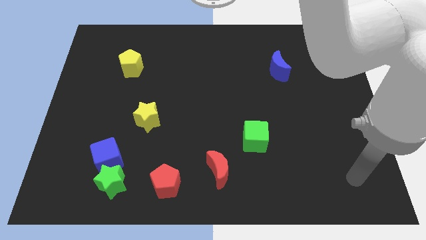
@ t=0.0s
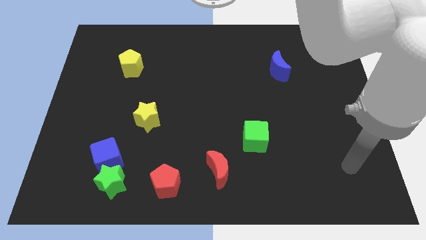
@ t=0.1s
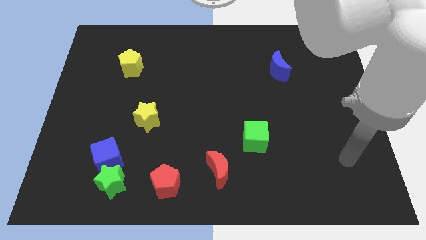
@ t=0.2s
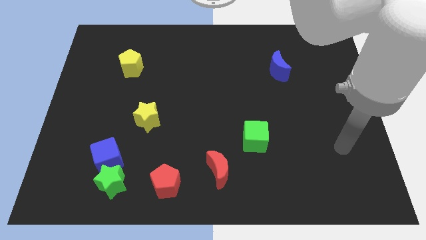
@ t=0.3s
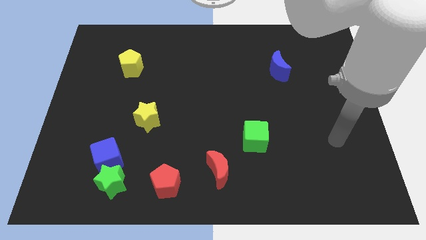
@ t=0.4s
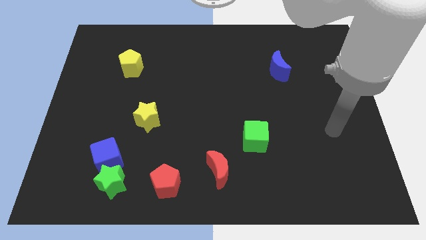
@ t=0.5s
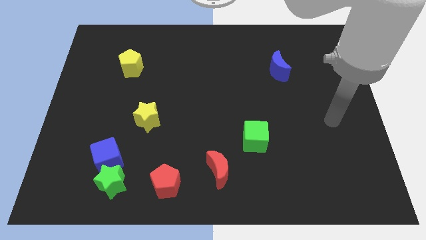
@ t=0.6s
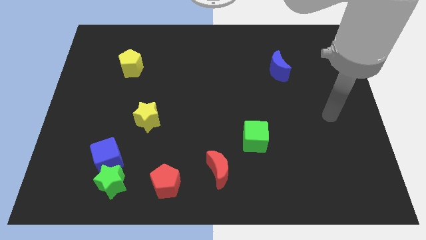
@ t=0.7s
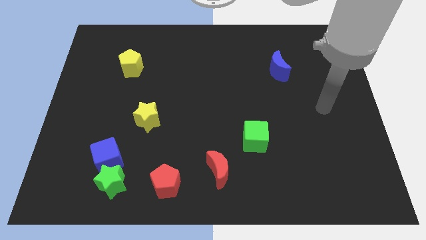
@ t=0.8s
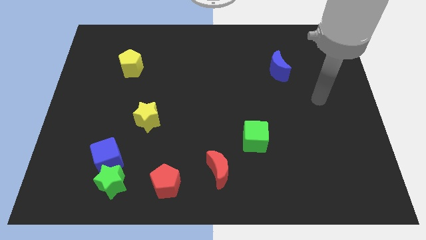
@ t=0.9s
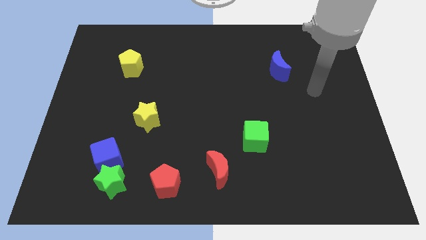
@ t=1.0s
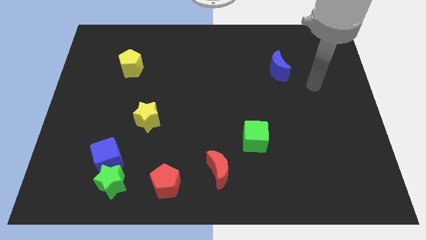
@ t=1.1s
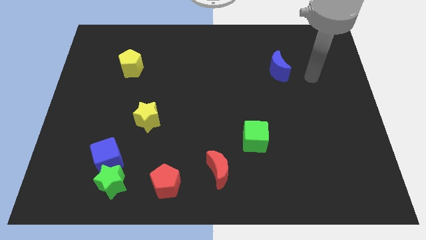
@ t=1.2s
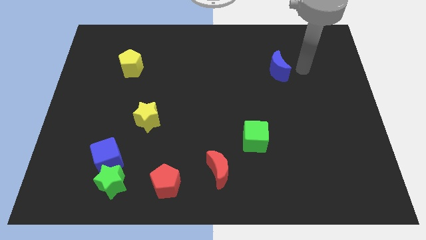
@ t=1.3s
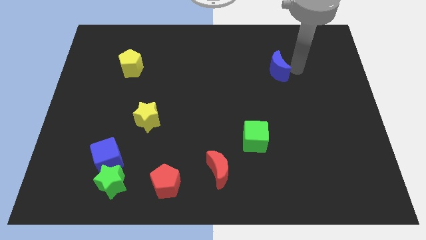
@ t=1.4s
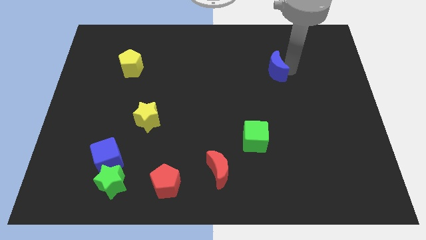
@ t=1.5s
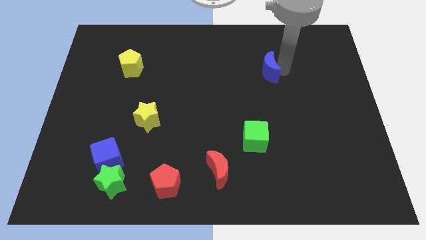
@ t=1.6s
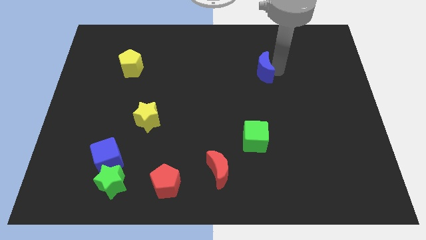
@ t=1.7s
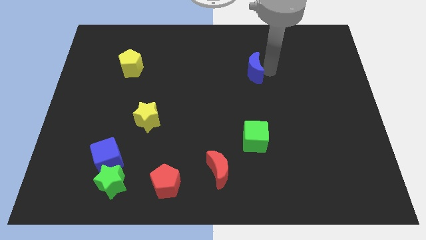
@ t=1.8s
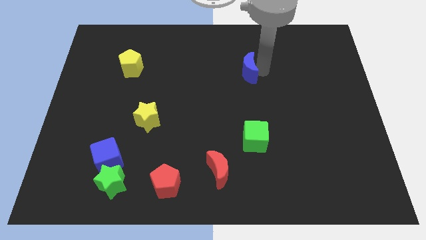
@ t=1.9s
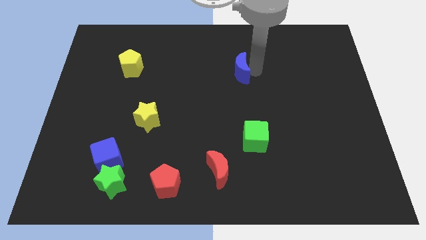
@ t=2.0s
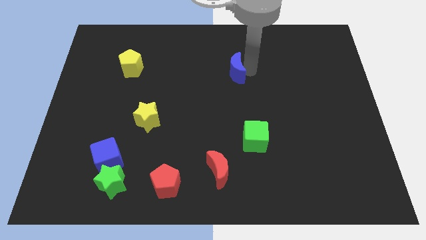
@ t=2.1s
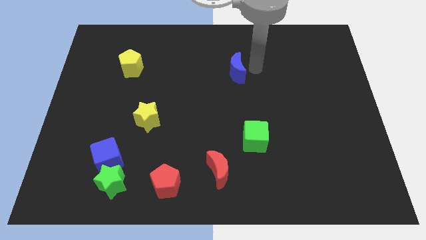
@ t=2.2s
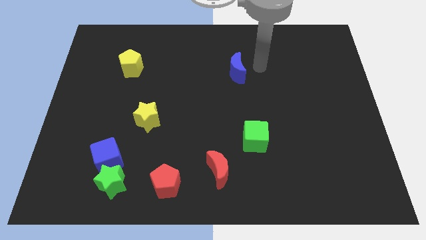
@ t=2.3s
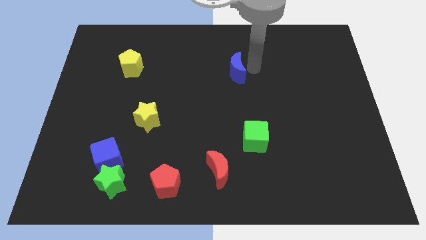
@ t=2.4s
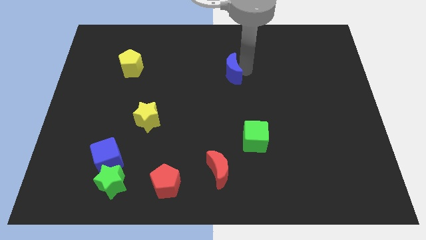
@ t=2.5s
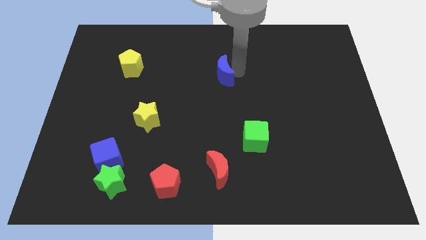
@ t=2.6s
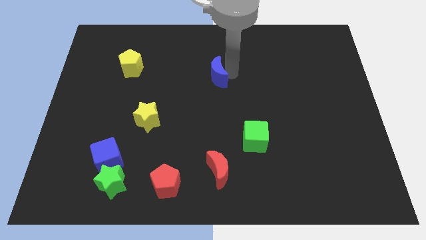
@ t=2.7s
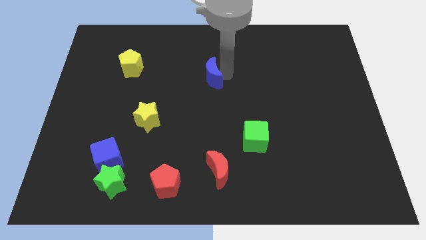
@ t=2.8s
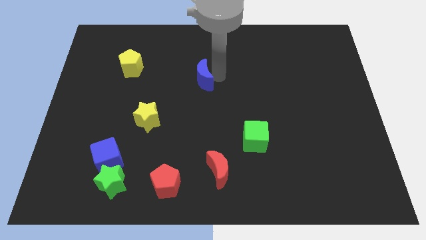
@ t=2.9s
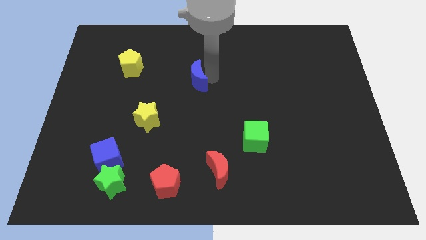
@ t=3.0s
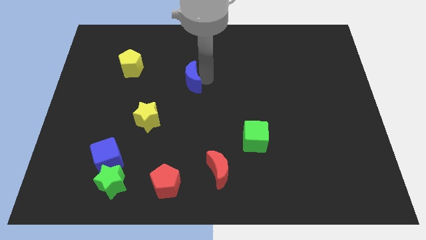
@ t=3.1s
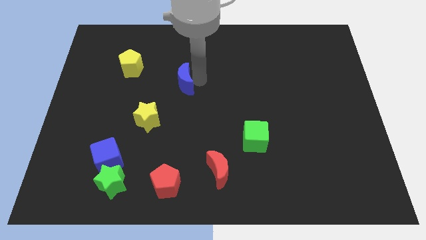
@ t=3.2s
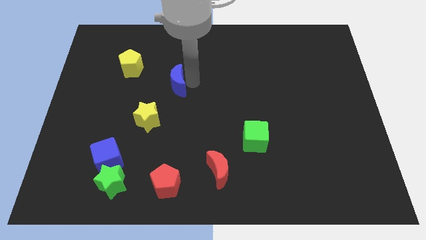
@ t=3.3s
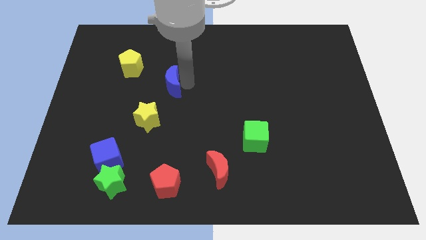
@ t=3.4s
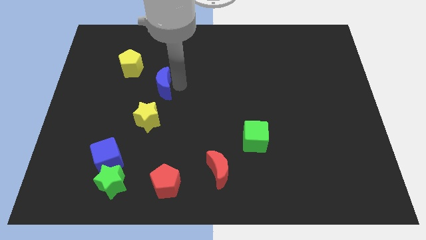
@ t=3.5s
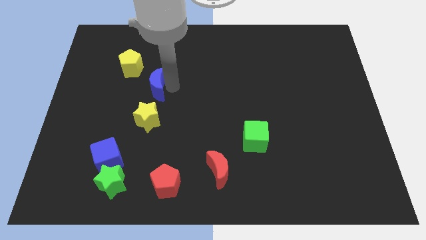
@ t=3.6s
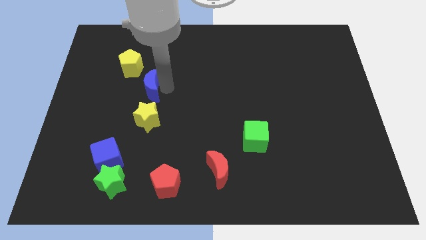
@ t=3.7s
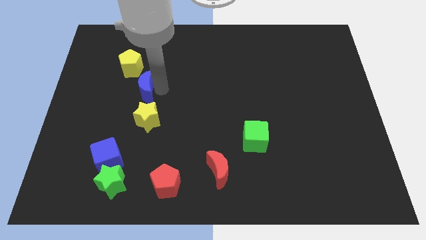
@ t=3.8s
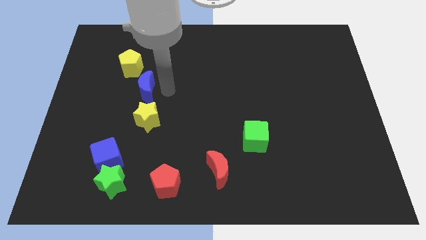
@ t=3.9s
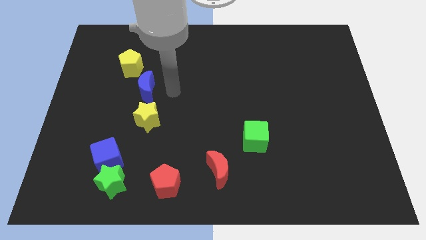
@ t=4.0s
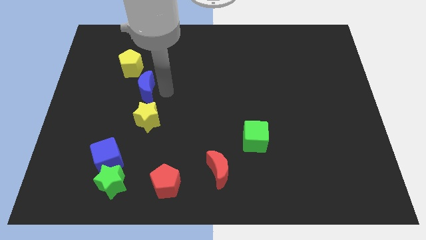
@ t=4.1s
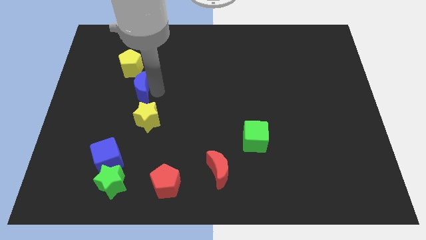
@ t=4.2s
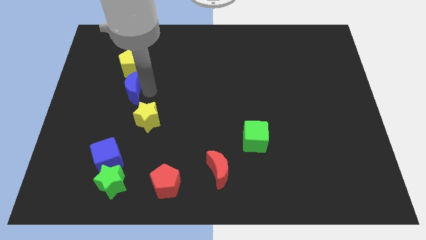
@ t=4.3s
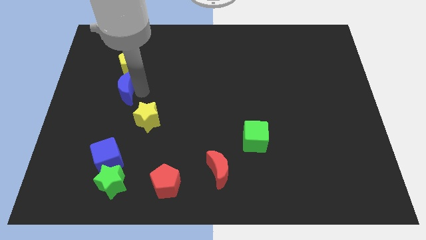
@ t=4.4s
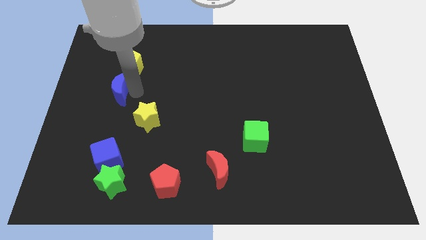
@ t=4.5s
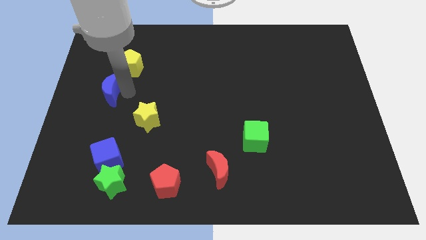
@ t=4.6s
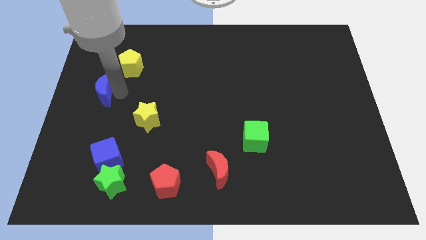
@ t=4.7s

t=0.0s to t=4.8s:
push the blue moon to the left side of the board

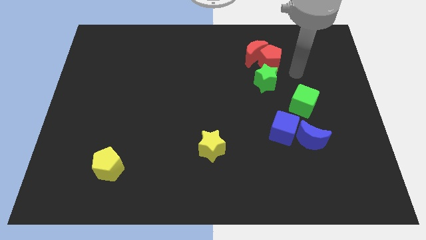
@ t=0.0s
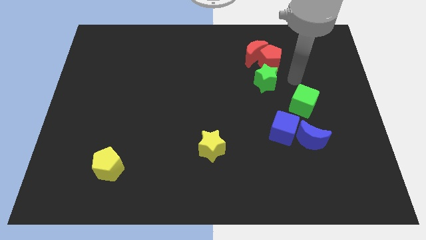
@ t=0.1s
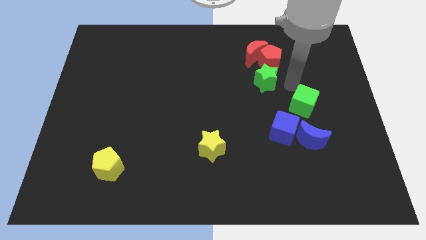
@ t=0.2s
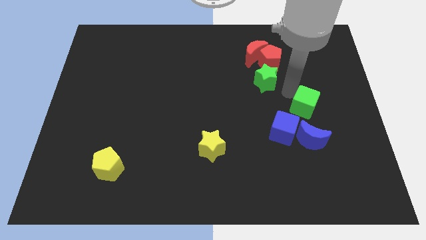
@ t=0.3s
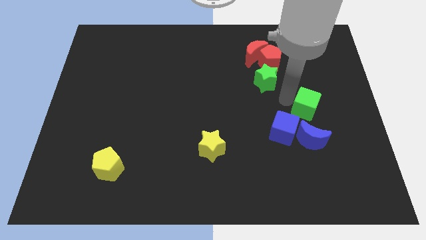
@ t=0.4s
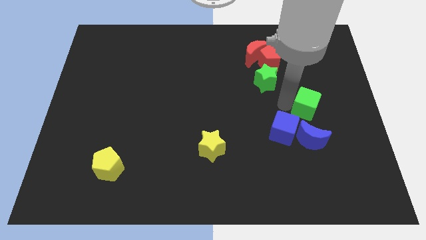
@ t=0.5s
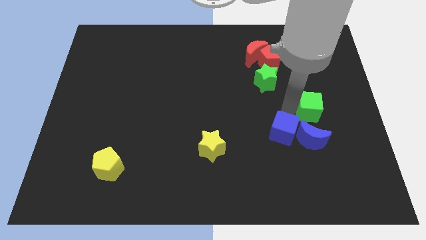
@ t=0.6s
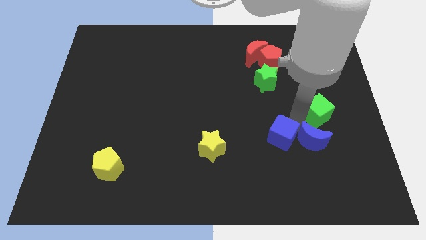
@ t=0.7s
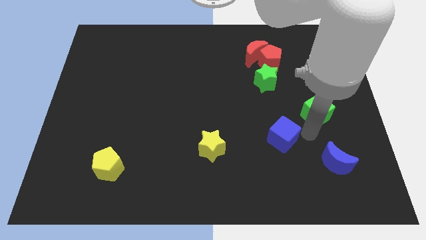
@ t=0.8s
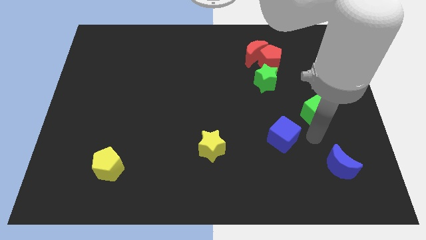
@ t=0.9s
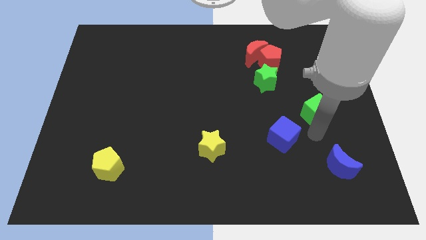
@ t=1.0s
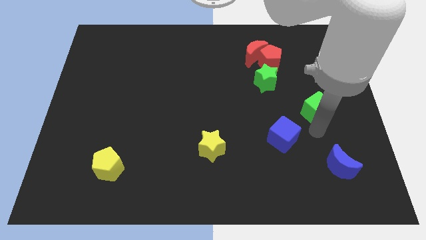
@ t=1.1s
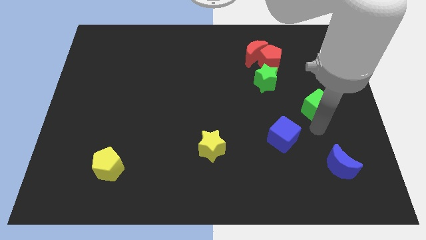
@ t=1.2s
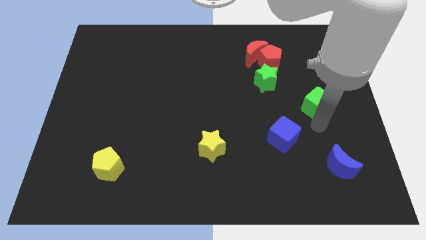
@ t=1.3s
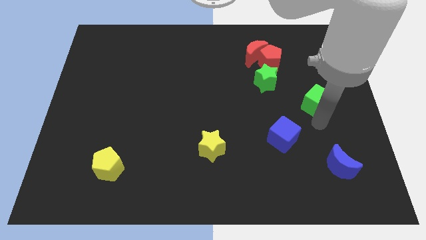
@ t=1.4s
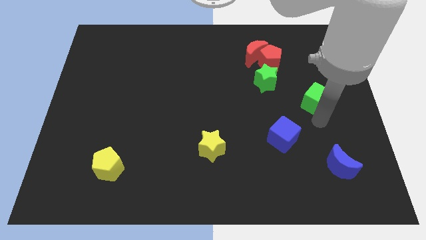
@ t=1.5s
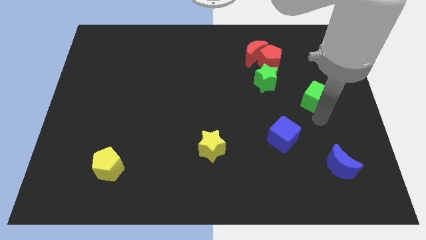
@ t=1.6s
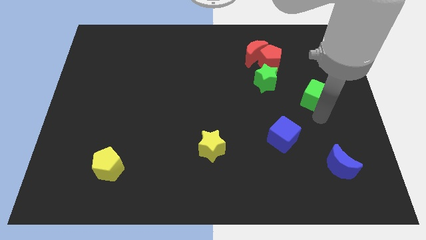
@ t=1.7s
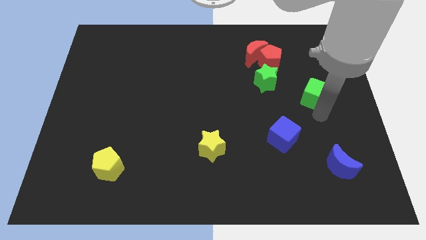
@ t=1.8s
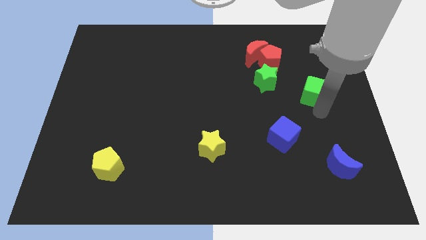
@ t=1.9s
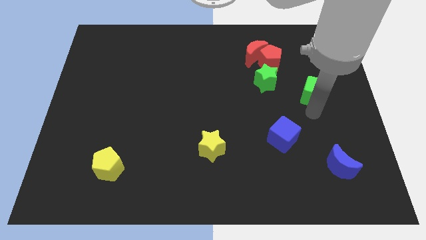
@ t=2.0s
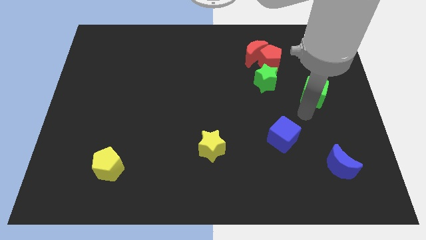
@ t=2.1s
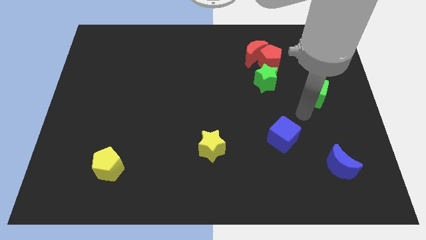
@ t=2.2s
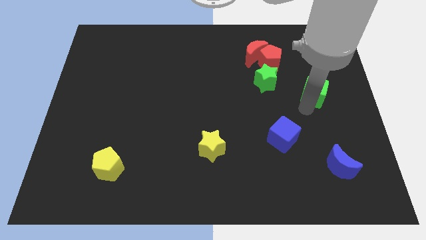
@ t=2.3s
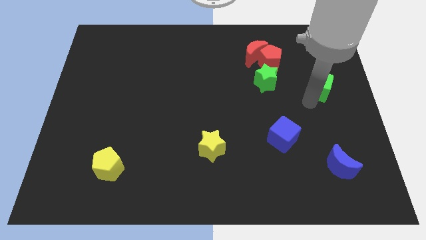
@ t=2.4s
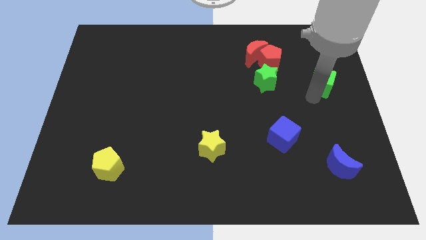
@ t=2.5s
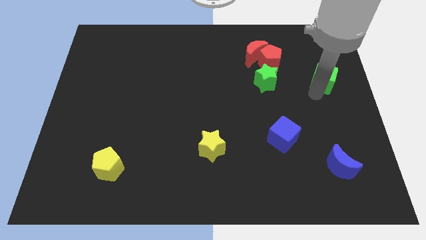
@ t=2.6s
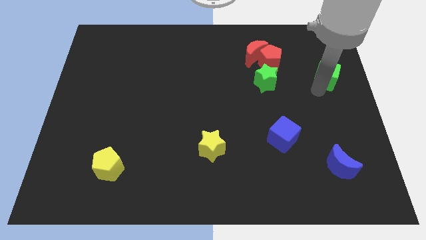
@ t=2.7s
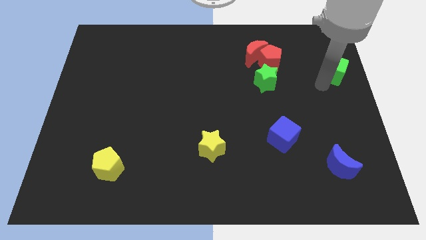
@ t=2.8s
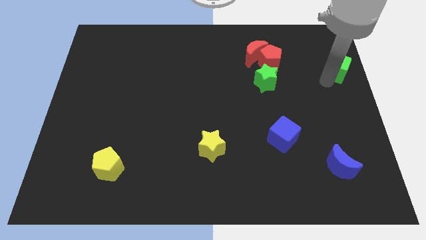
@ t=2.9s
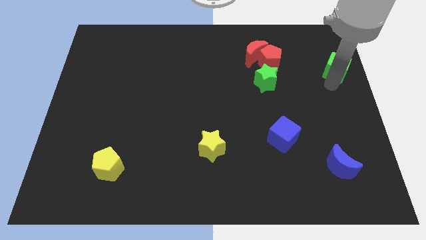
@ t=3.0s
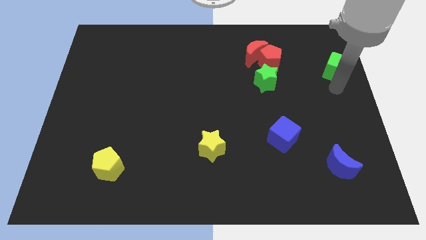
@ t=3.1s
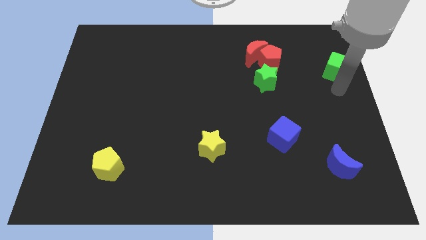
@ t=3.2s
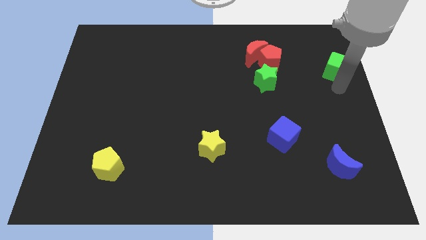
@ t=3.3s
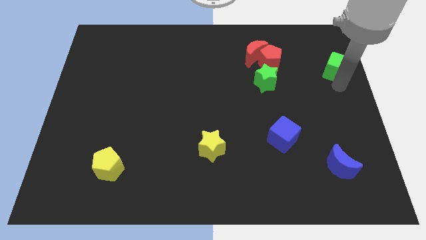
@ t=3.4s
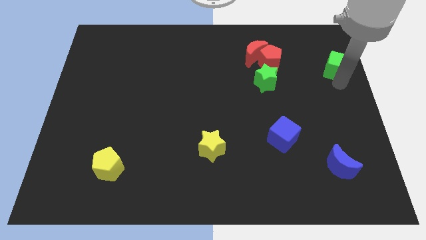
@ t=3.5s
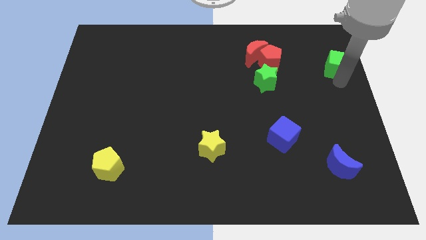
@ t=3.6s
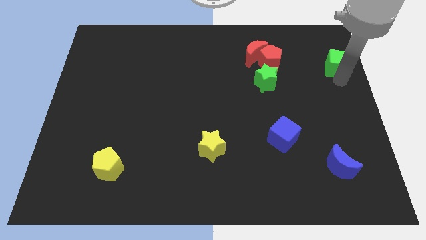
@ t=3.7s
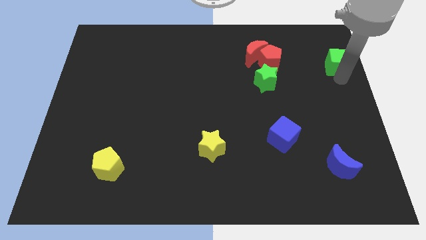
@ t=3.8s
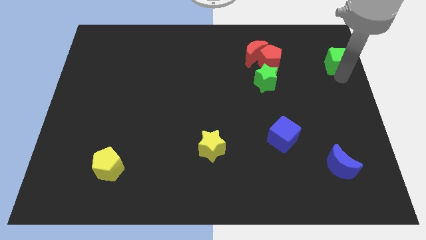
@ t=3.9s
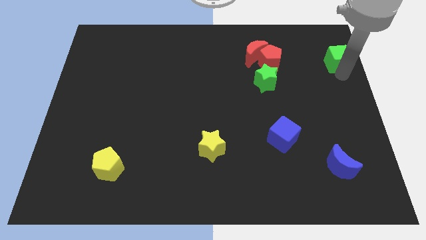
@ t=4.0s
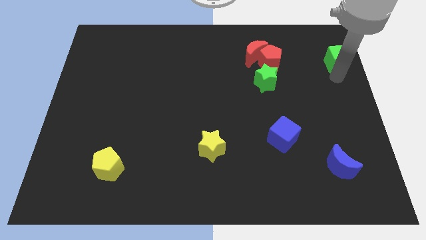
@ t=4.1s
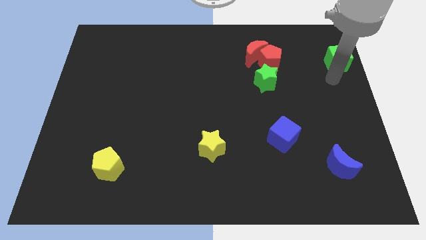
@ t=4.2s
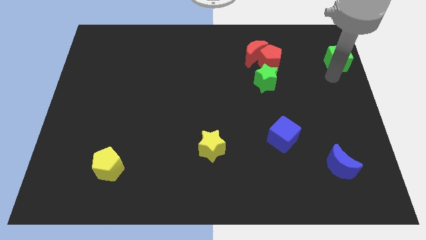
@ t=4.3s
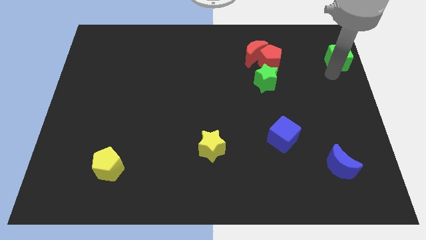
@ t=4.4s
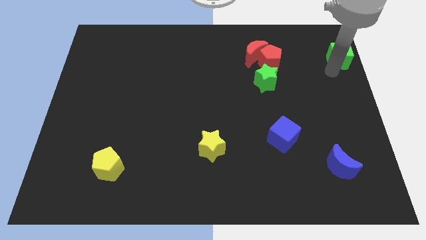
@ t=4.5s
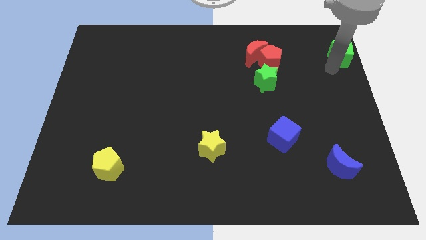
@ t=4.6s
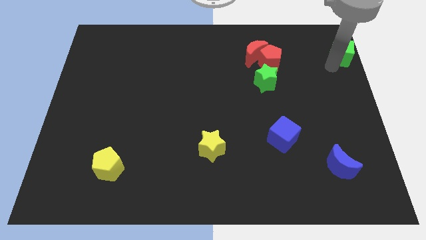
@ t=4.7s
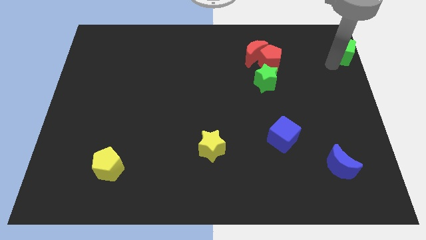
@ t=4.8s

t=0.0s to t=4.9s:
move the green cube to the top right of the board
